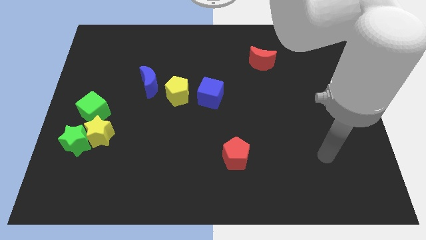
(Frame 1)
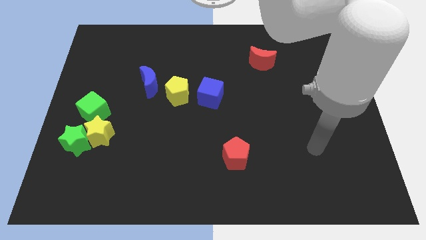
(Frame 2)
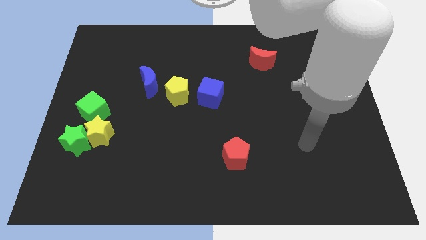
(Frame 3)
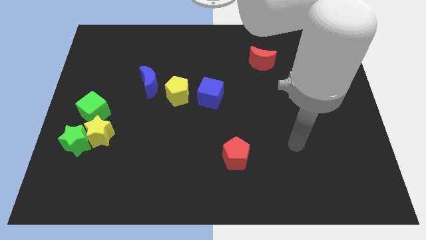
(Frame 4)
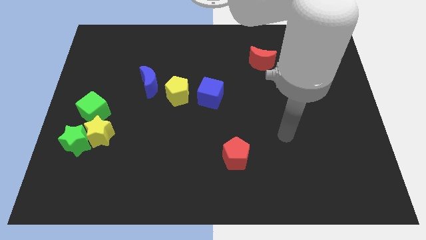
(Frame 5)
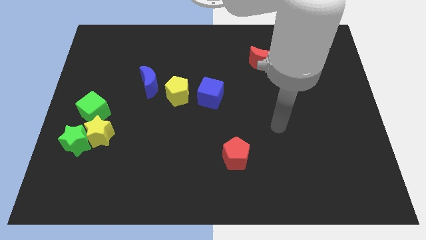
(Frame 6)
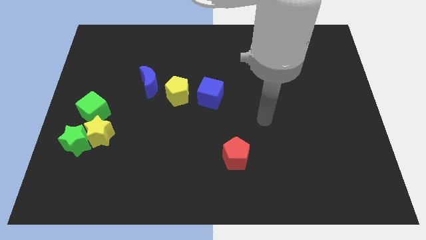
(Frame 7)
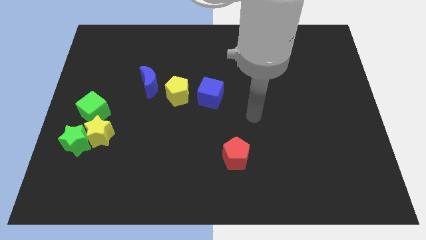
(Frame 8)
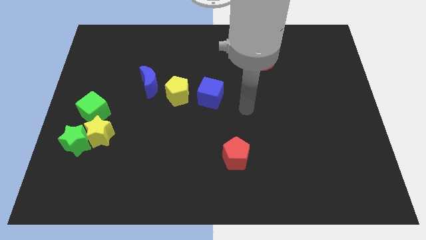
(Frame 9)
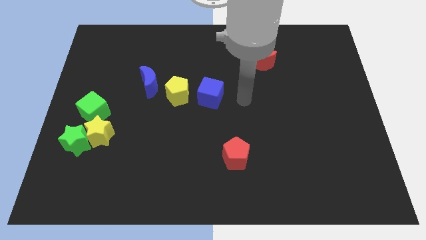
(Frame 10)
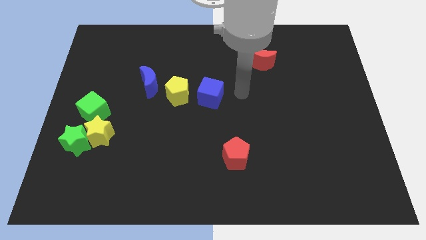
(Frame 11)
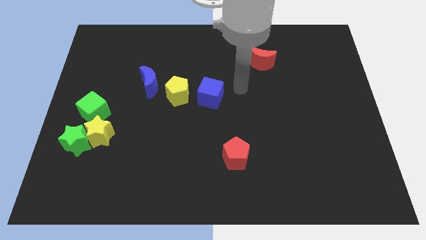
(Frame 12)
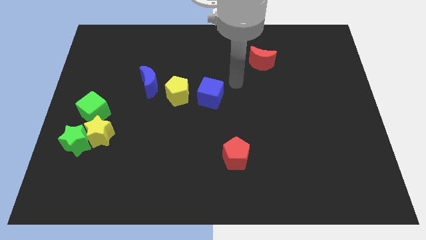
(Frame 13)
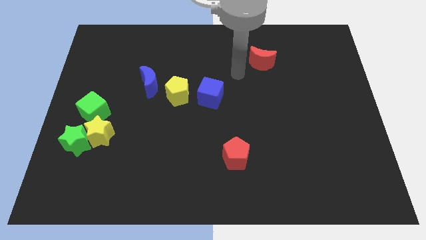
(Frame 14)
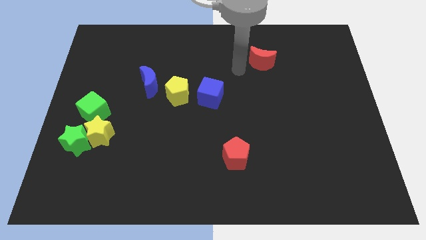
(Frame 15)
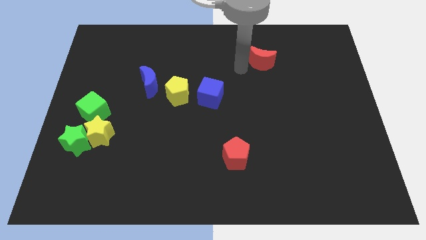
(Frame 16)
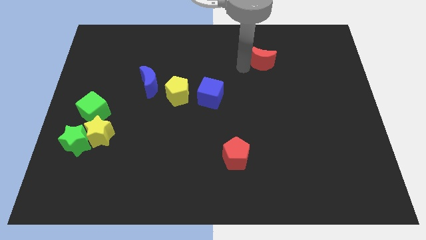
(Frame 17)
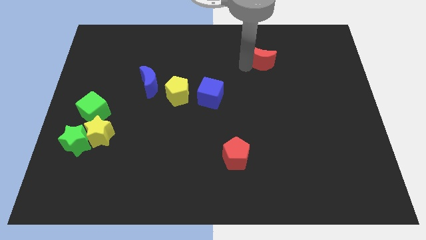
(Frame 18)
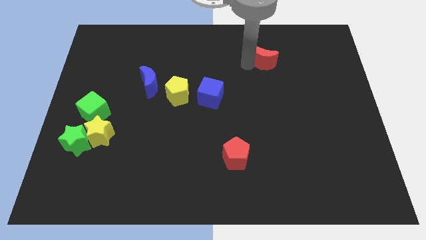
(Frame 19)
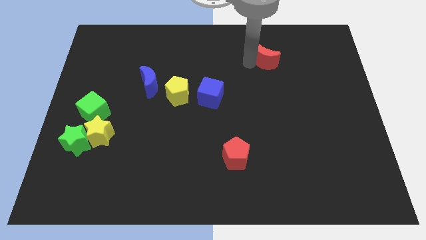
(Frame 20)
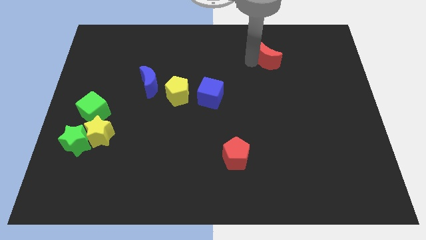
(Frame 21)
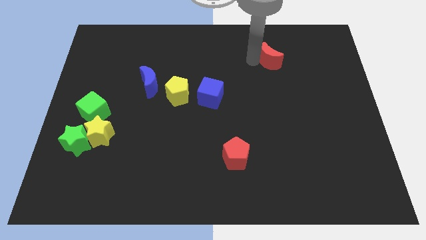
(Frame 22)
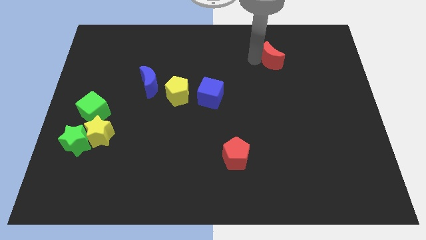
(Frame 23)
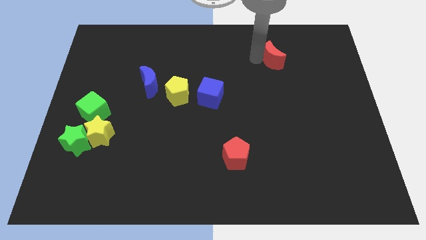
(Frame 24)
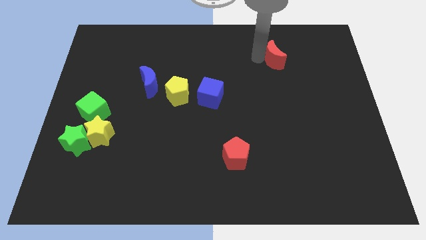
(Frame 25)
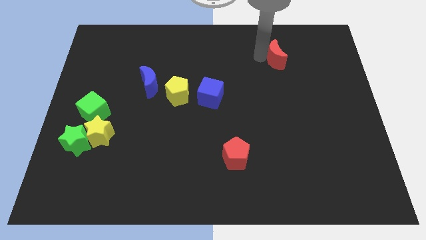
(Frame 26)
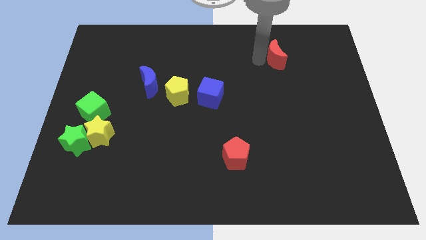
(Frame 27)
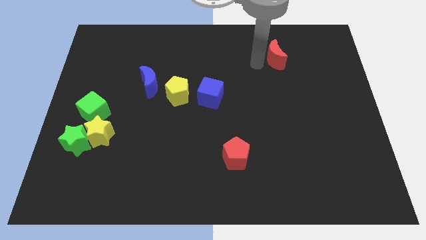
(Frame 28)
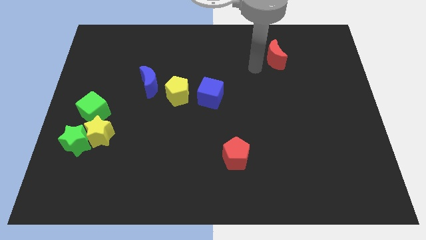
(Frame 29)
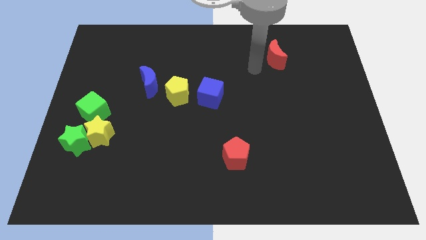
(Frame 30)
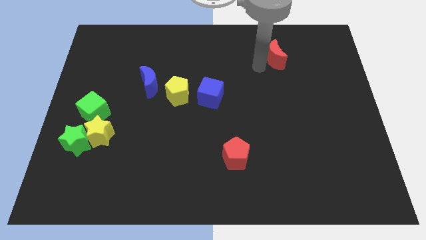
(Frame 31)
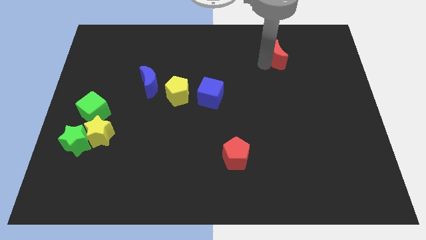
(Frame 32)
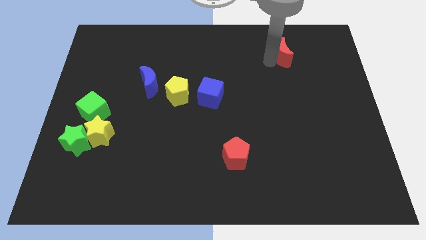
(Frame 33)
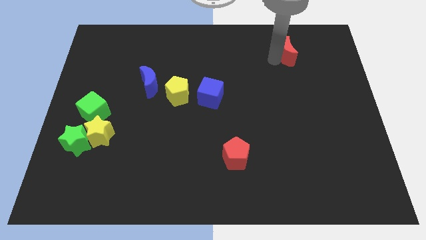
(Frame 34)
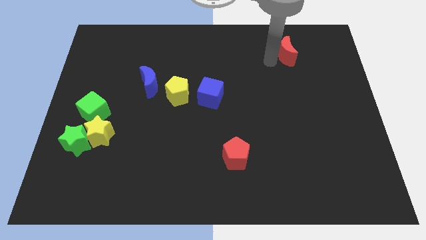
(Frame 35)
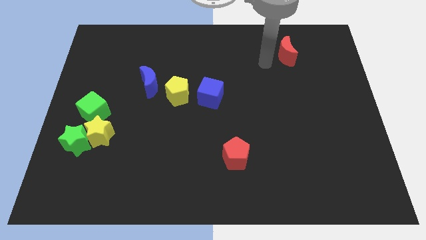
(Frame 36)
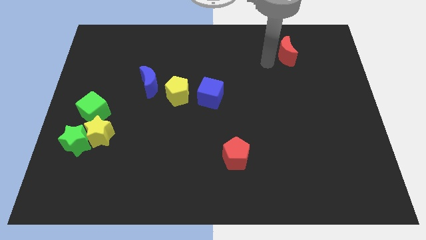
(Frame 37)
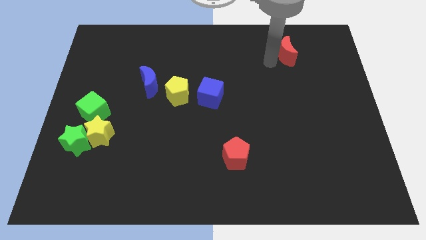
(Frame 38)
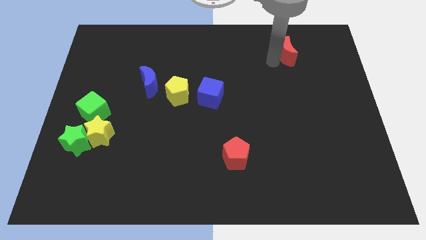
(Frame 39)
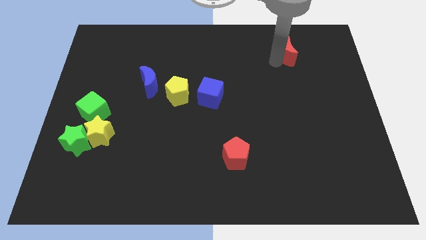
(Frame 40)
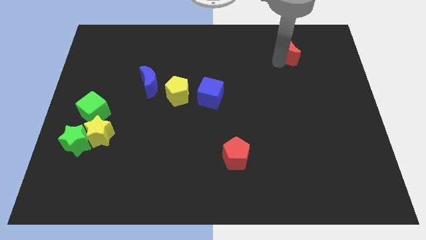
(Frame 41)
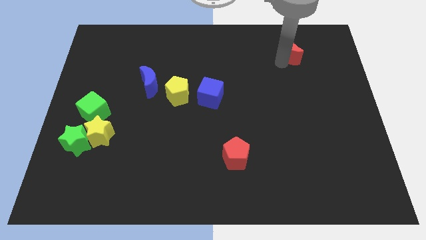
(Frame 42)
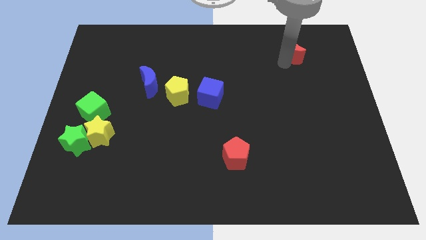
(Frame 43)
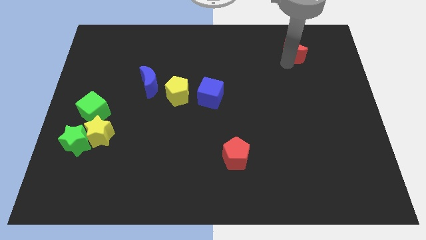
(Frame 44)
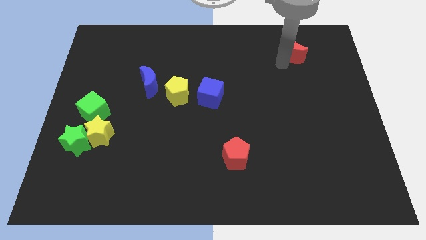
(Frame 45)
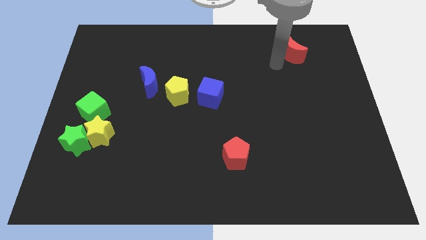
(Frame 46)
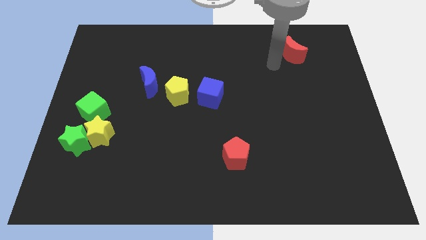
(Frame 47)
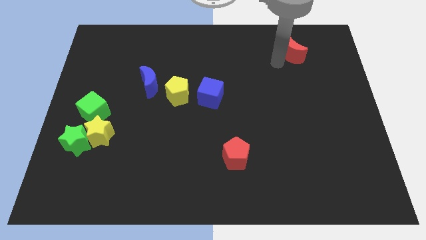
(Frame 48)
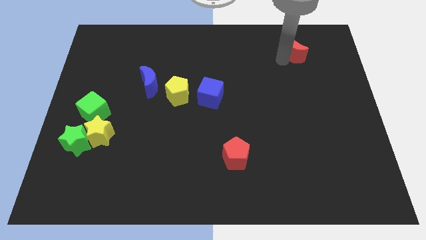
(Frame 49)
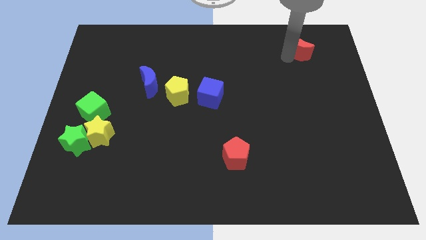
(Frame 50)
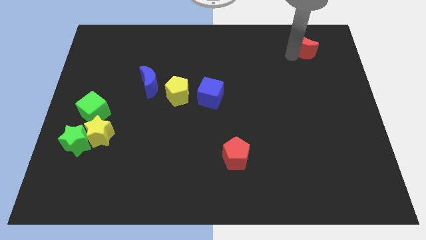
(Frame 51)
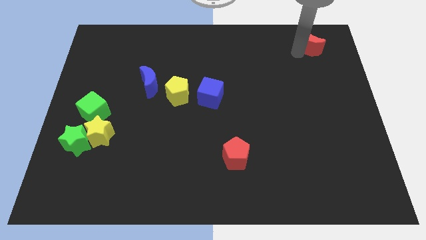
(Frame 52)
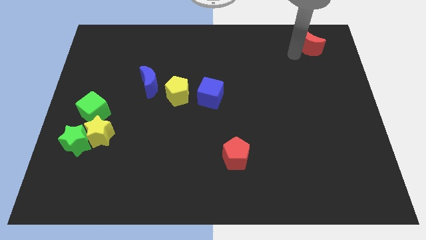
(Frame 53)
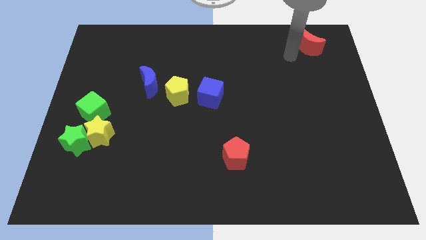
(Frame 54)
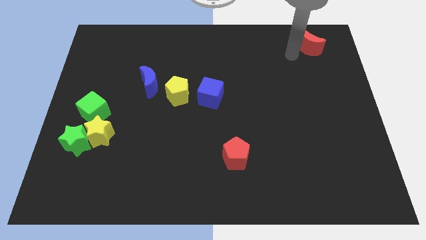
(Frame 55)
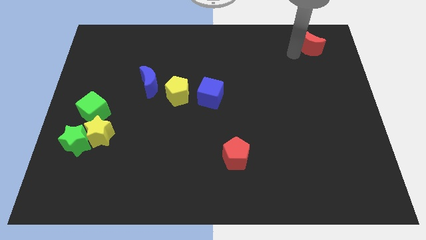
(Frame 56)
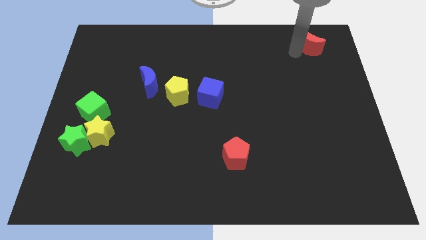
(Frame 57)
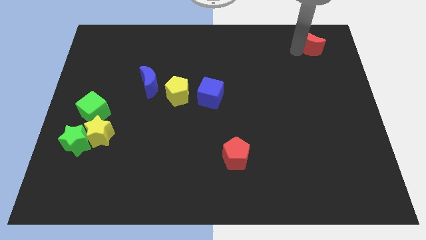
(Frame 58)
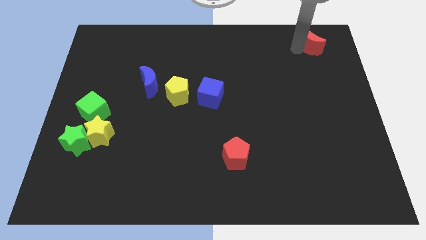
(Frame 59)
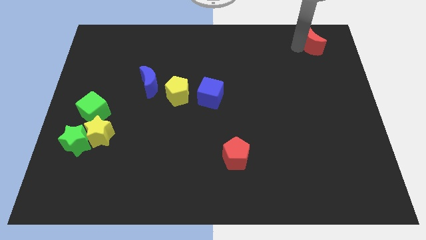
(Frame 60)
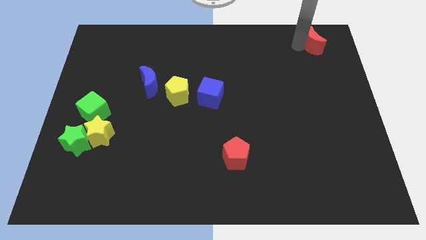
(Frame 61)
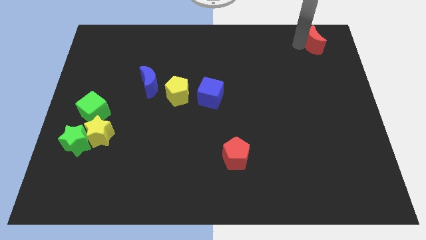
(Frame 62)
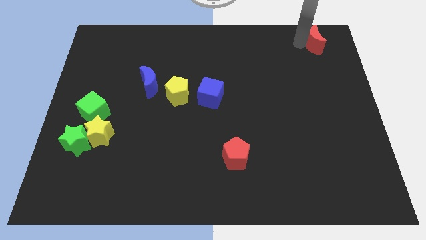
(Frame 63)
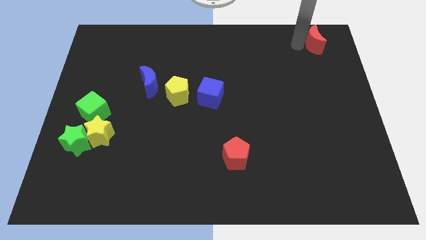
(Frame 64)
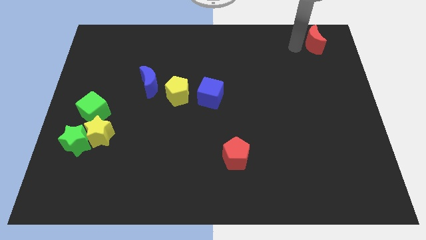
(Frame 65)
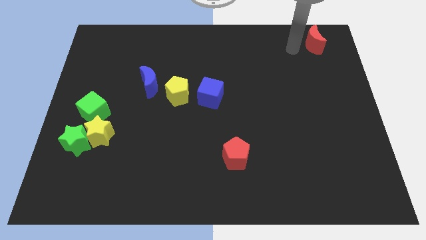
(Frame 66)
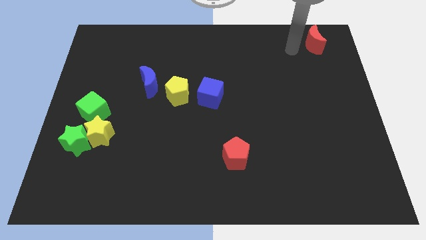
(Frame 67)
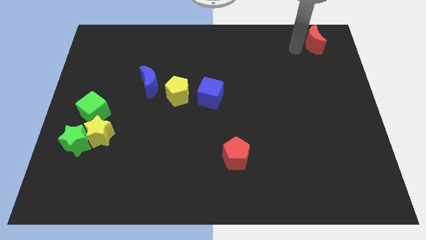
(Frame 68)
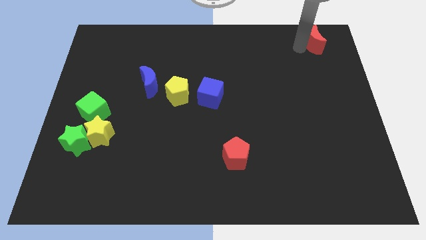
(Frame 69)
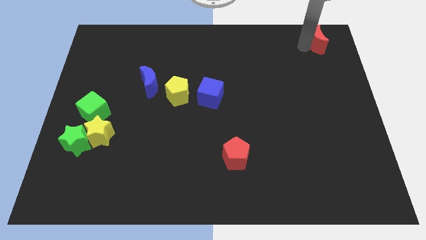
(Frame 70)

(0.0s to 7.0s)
push the red moon to the top right

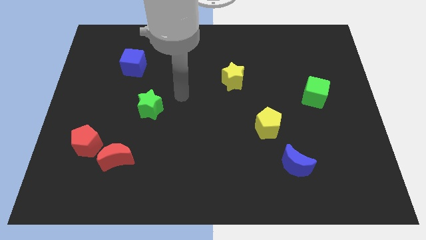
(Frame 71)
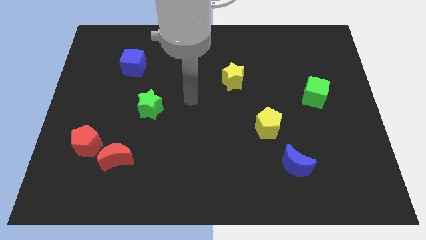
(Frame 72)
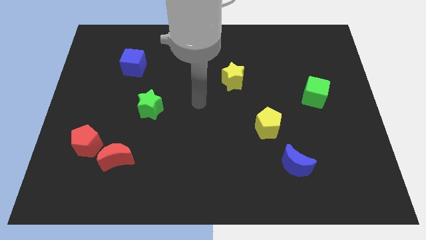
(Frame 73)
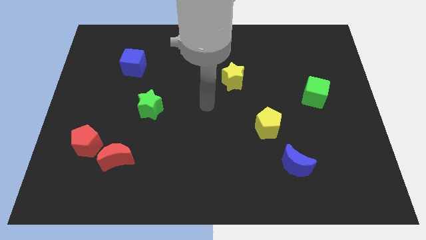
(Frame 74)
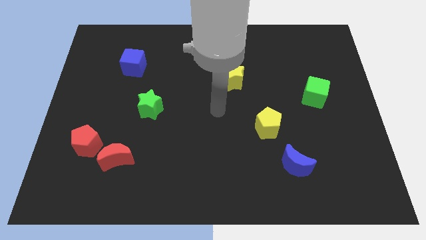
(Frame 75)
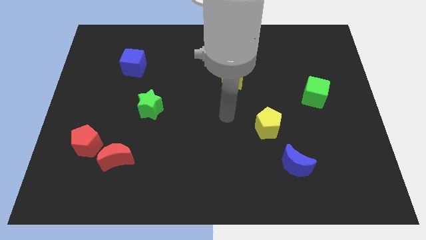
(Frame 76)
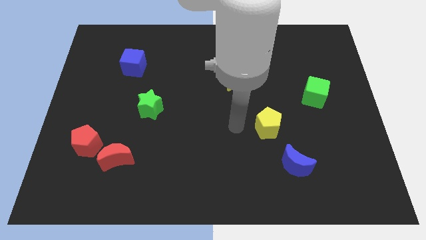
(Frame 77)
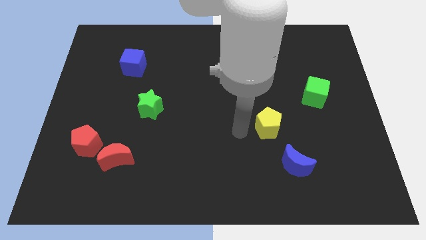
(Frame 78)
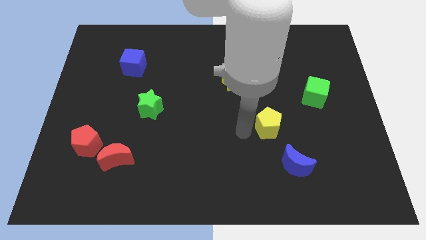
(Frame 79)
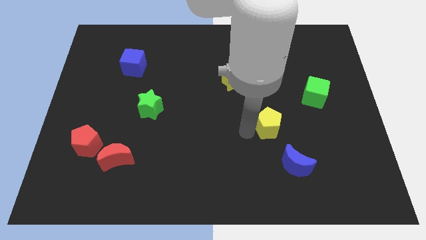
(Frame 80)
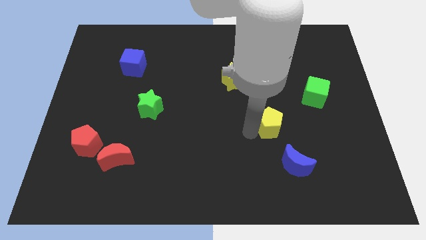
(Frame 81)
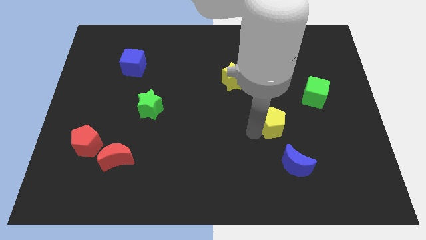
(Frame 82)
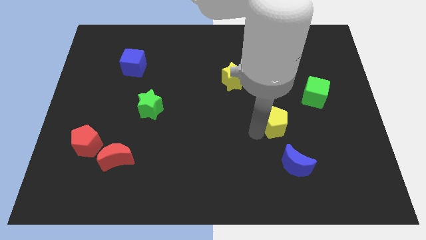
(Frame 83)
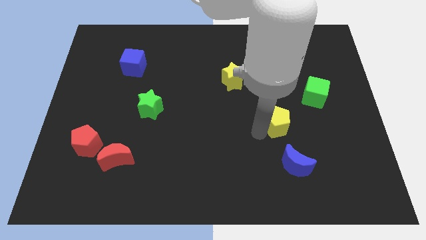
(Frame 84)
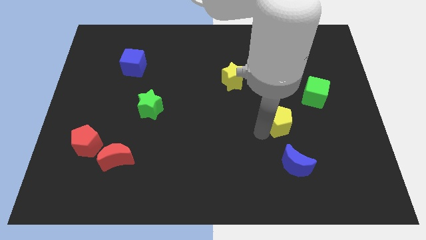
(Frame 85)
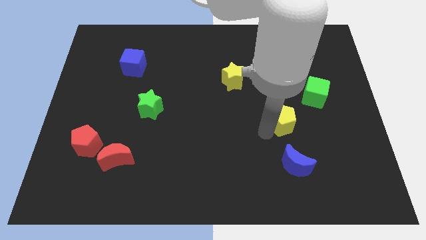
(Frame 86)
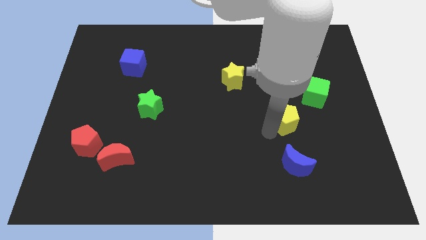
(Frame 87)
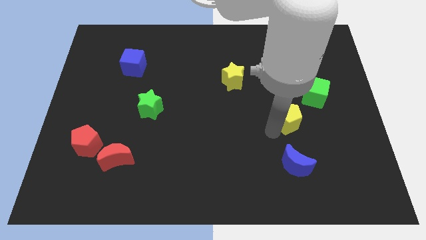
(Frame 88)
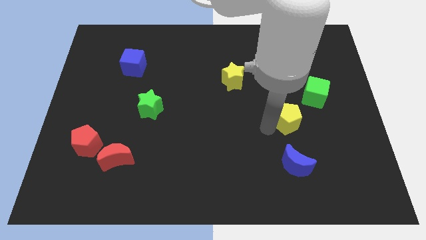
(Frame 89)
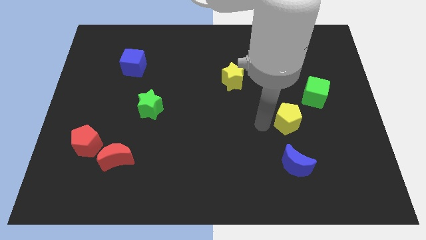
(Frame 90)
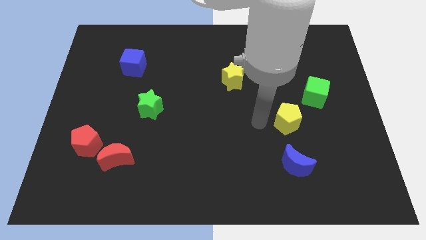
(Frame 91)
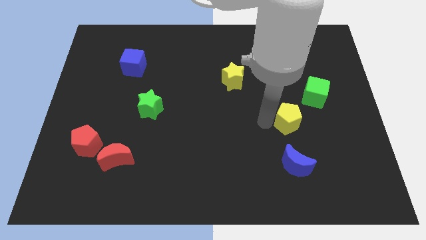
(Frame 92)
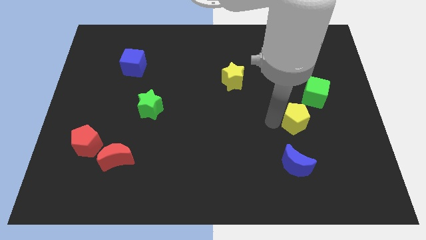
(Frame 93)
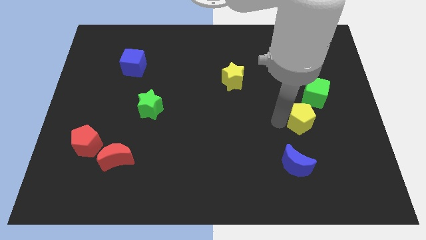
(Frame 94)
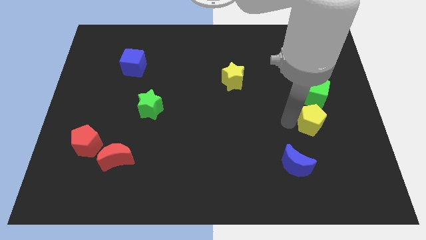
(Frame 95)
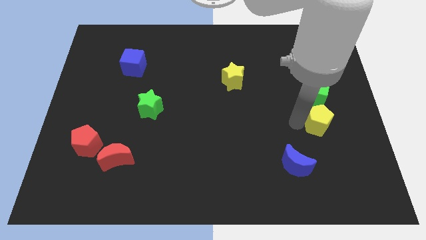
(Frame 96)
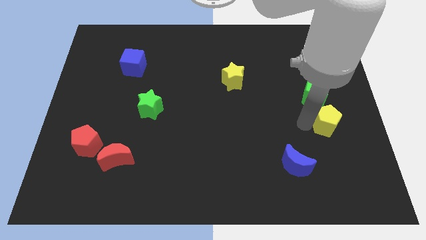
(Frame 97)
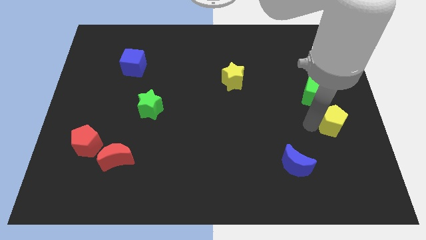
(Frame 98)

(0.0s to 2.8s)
move the yellow pentagon to the right side of the board
